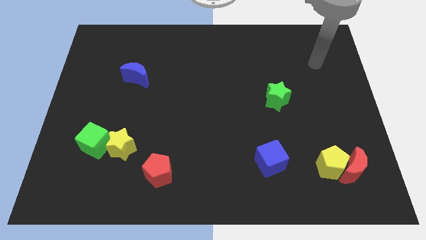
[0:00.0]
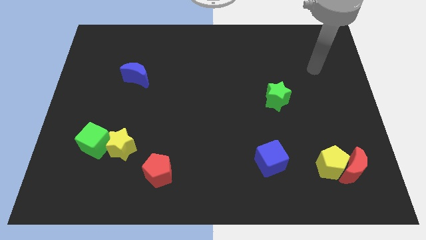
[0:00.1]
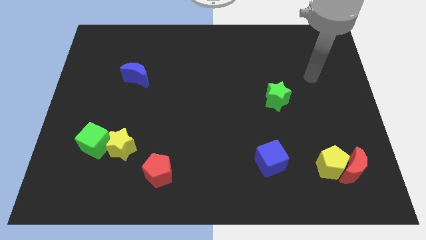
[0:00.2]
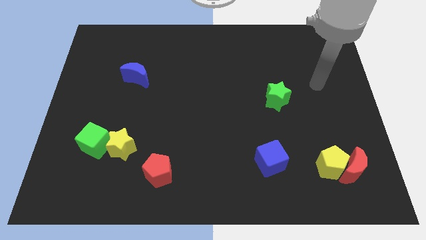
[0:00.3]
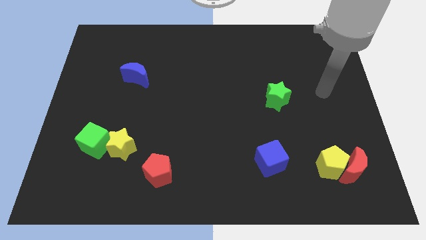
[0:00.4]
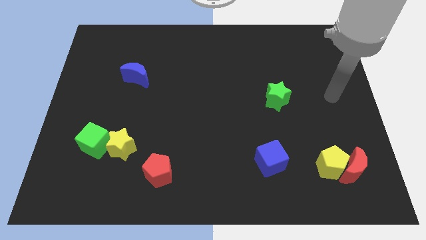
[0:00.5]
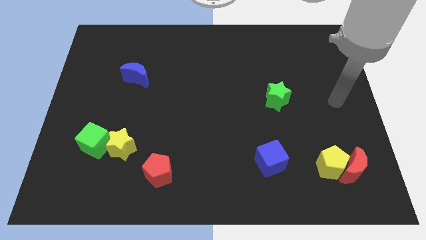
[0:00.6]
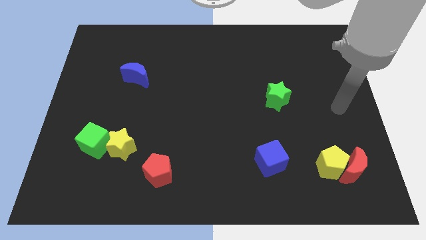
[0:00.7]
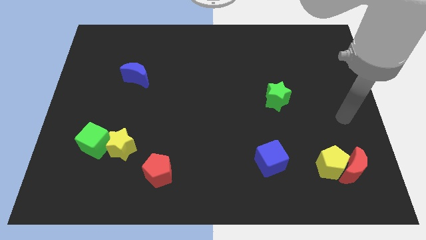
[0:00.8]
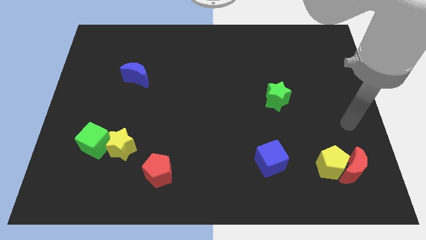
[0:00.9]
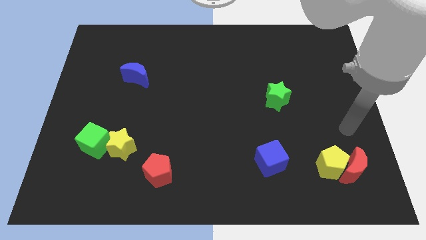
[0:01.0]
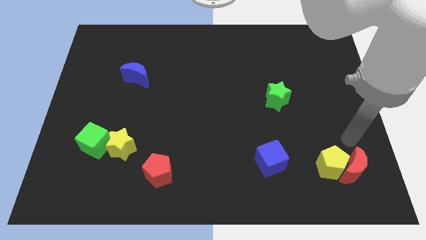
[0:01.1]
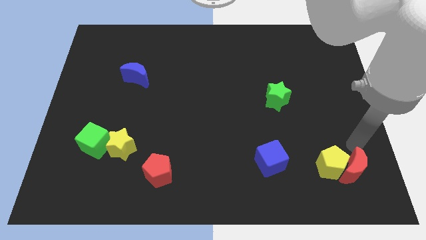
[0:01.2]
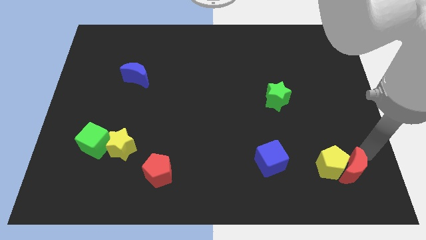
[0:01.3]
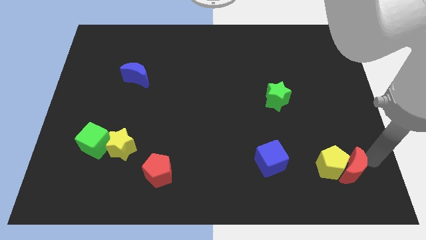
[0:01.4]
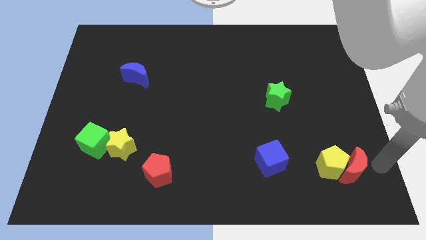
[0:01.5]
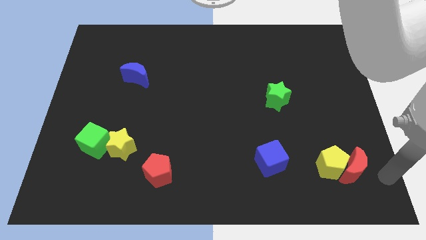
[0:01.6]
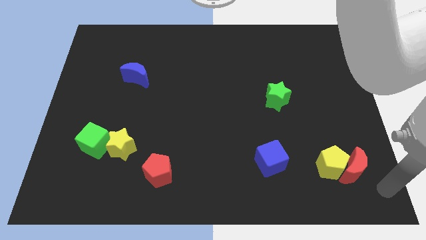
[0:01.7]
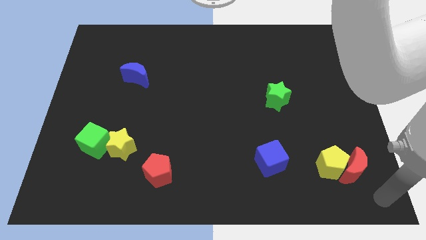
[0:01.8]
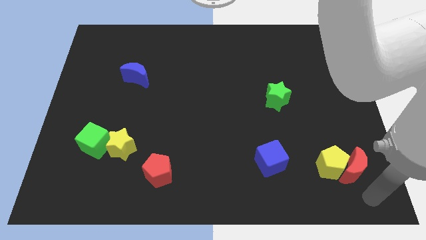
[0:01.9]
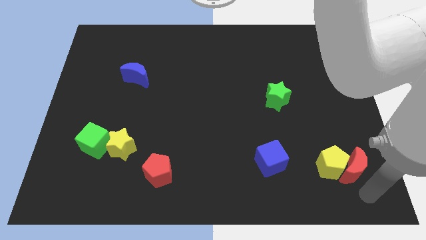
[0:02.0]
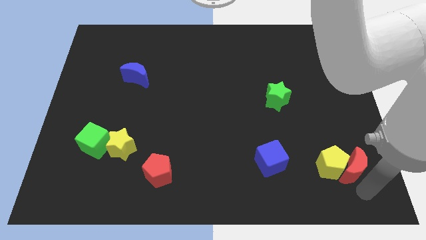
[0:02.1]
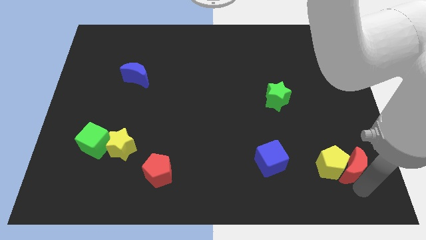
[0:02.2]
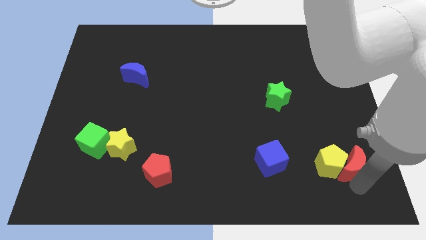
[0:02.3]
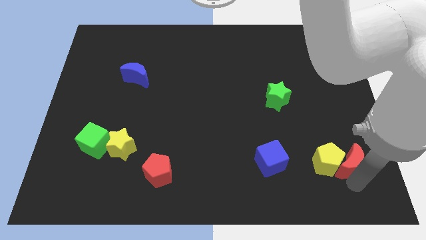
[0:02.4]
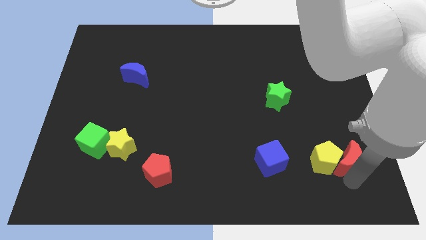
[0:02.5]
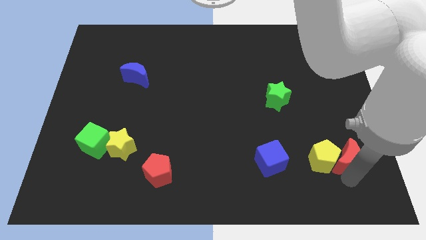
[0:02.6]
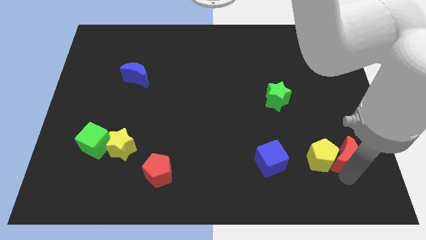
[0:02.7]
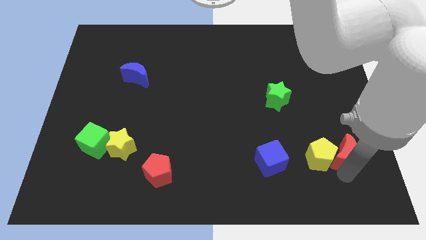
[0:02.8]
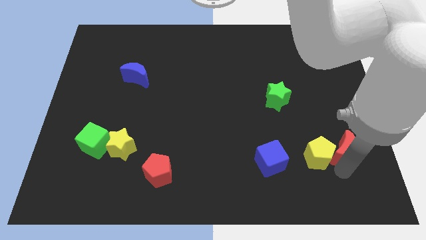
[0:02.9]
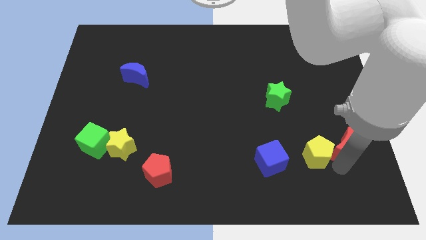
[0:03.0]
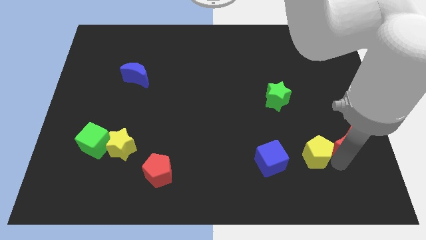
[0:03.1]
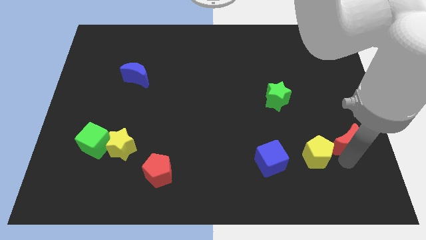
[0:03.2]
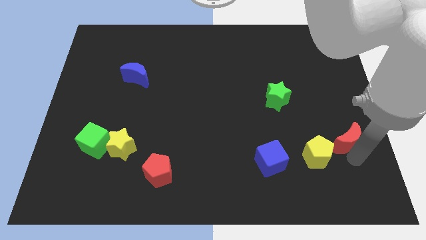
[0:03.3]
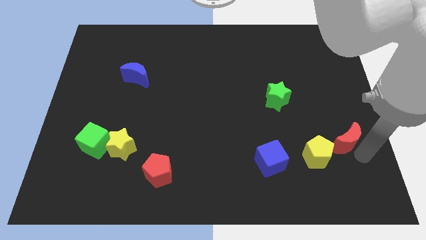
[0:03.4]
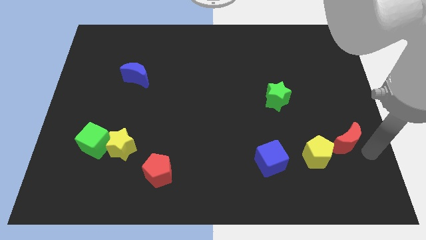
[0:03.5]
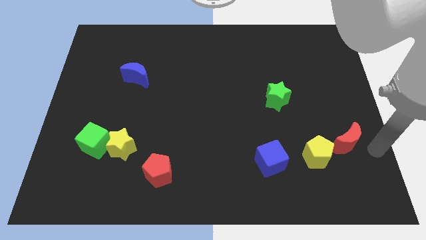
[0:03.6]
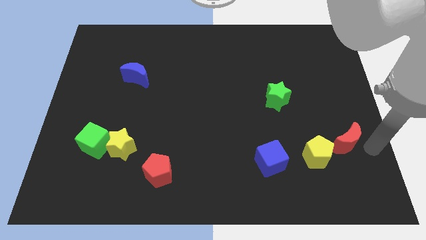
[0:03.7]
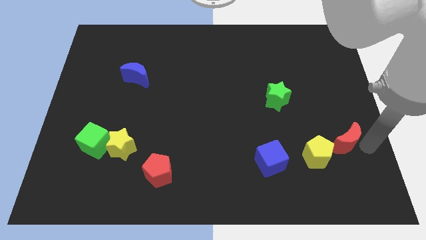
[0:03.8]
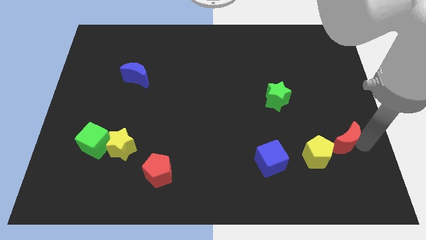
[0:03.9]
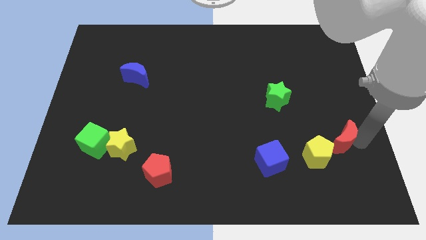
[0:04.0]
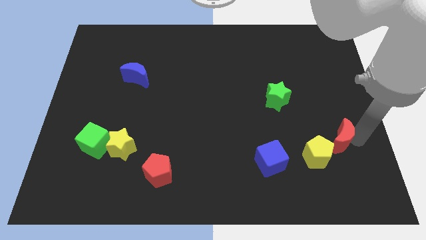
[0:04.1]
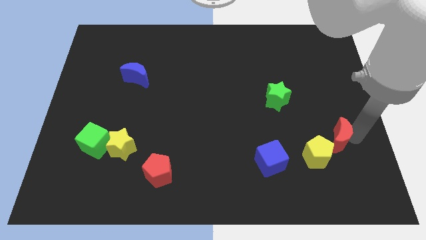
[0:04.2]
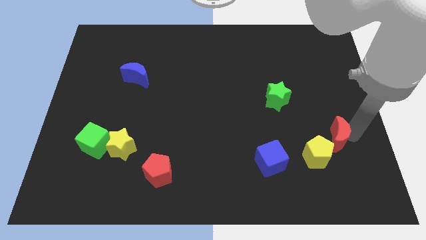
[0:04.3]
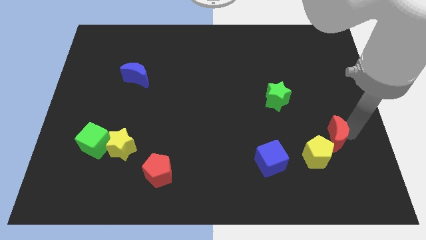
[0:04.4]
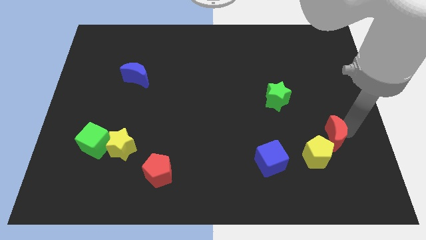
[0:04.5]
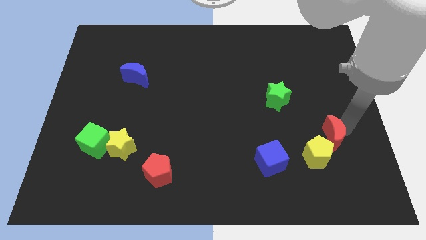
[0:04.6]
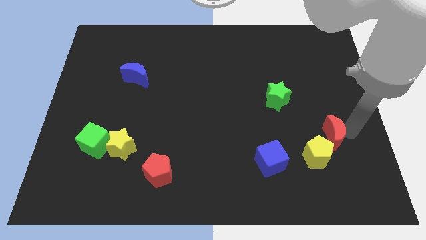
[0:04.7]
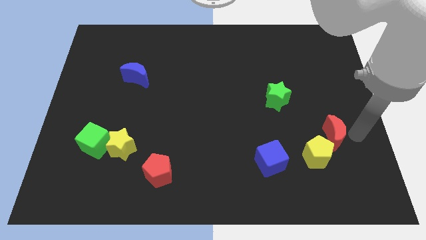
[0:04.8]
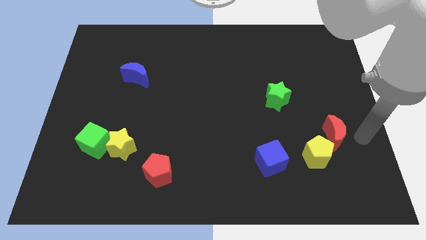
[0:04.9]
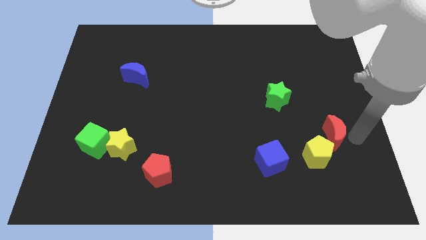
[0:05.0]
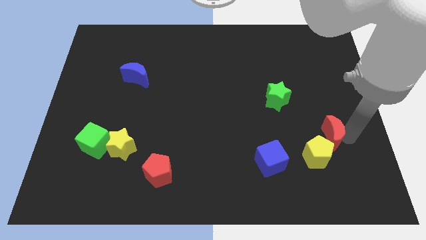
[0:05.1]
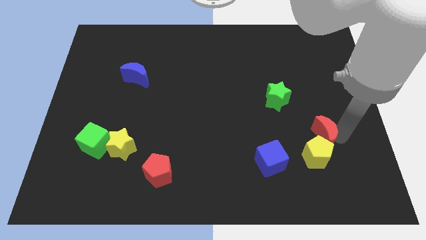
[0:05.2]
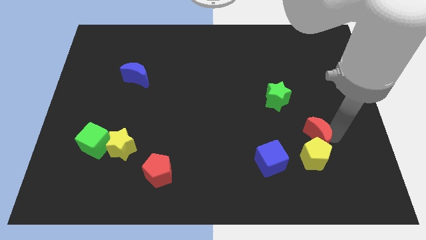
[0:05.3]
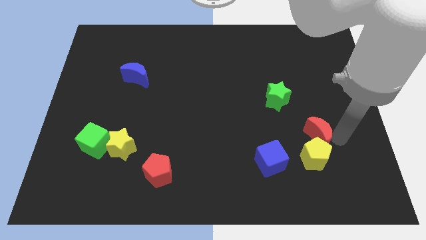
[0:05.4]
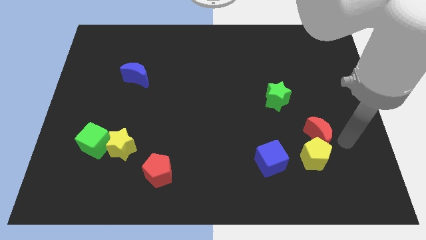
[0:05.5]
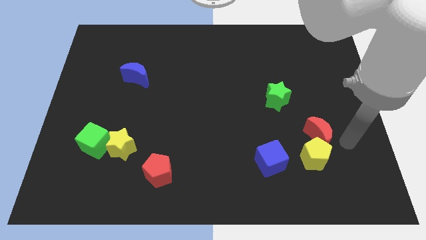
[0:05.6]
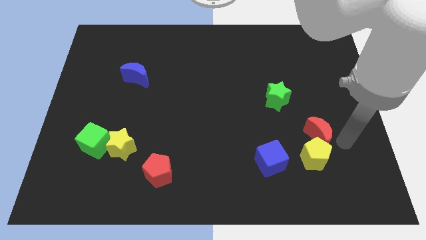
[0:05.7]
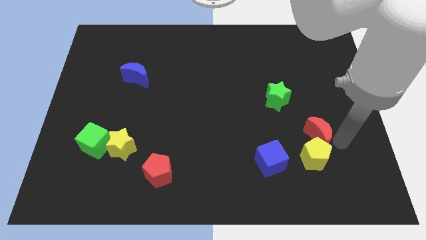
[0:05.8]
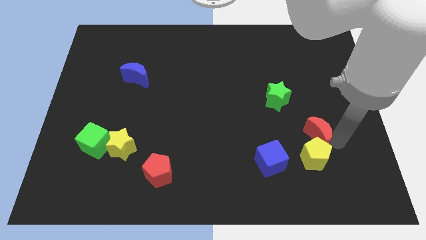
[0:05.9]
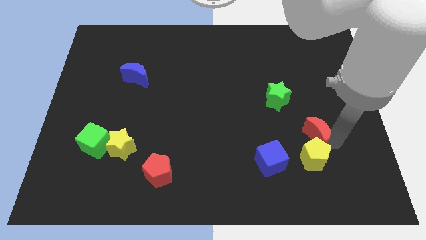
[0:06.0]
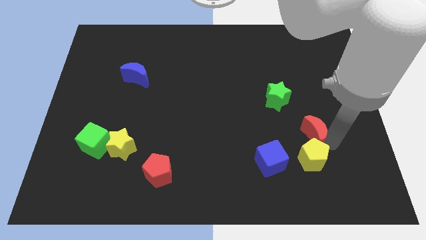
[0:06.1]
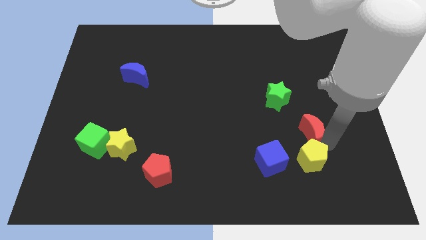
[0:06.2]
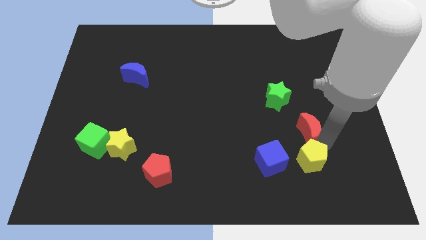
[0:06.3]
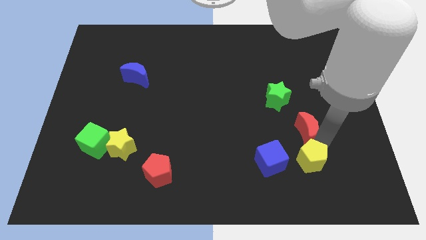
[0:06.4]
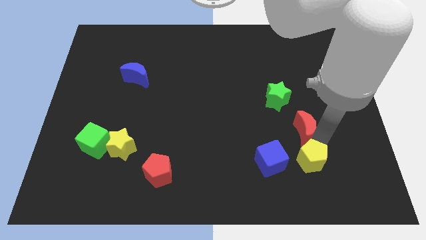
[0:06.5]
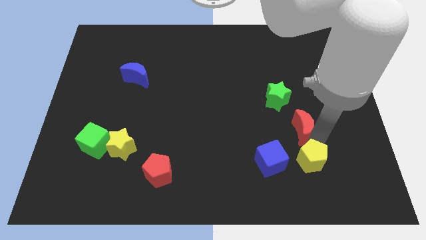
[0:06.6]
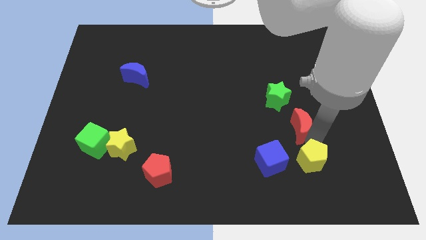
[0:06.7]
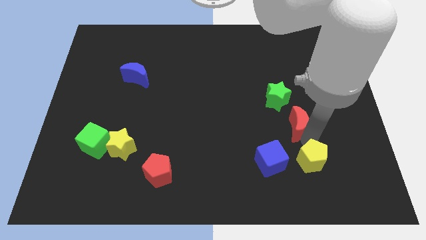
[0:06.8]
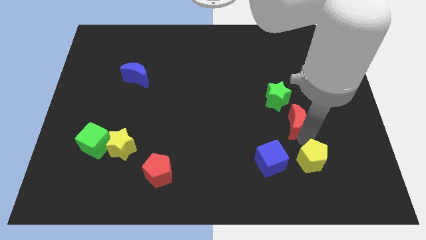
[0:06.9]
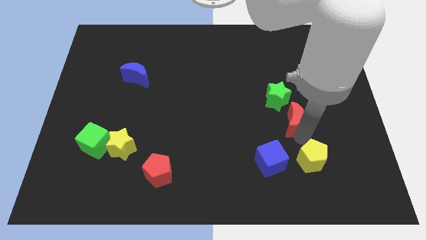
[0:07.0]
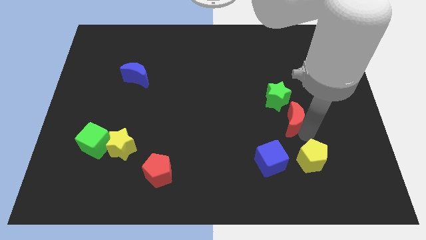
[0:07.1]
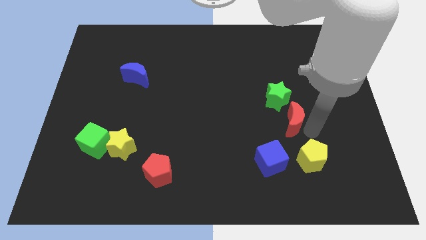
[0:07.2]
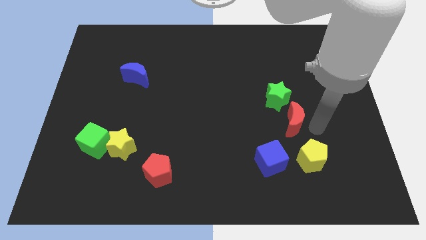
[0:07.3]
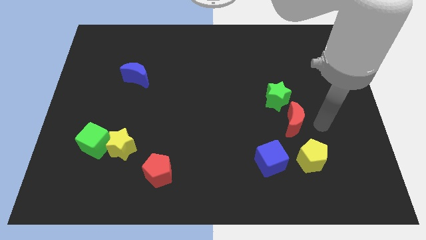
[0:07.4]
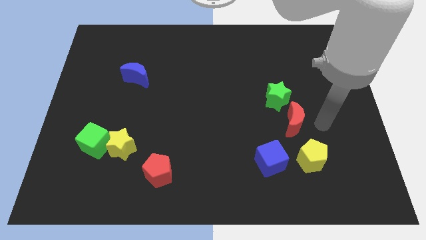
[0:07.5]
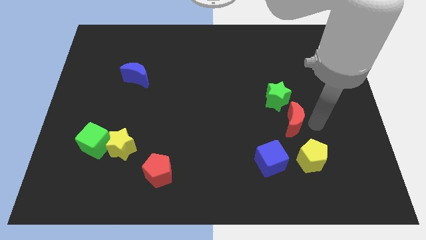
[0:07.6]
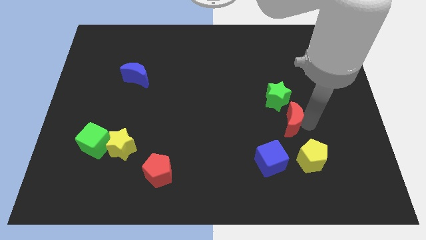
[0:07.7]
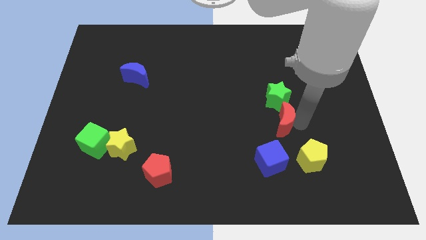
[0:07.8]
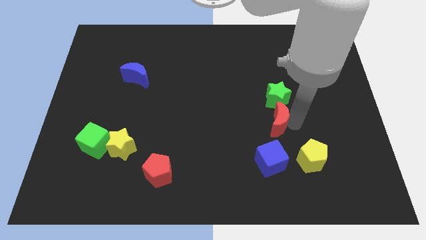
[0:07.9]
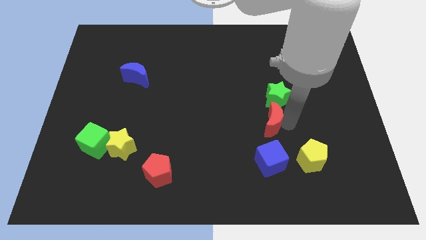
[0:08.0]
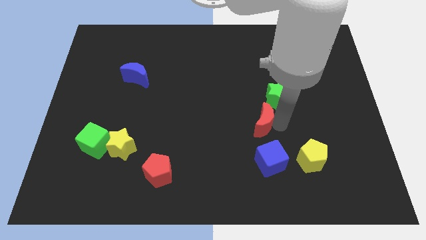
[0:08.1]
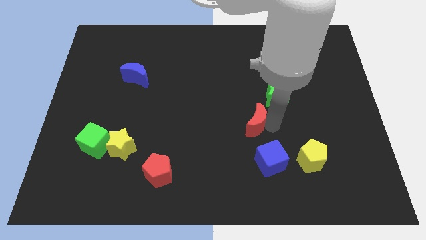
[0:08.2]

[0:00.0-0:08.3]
put the red moon to the middle of the board
